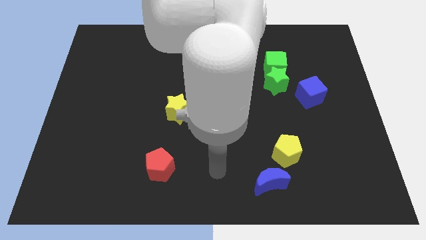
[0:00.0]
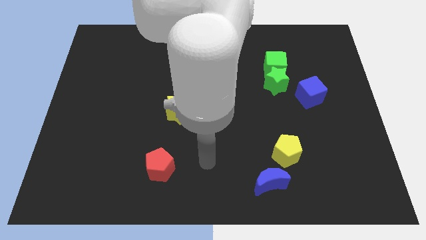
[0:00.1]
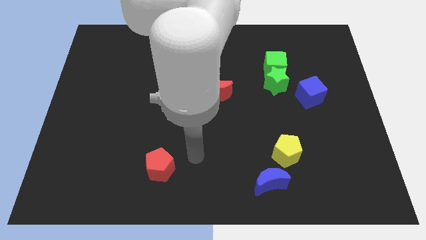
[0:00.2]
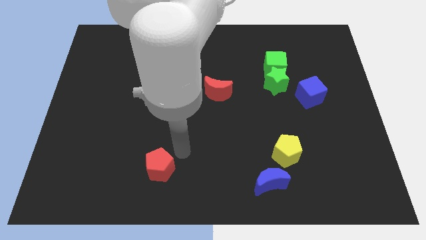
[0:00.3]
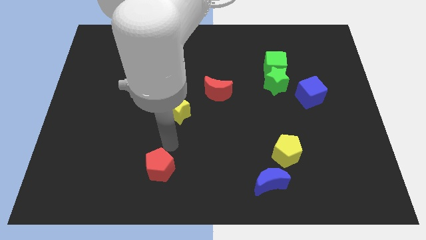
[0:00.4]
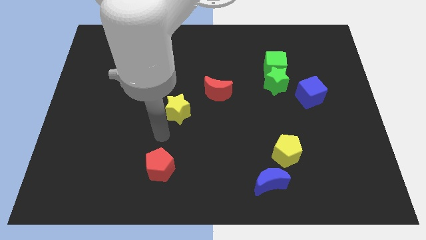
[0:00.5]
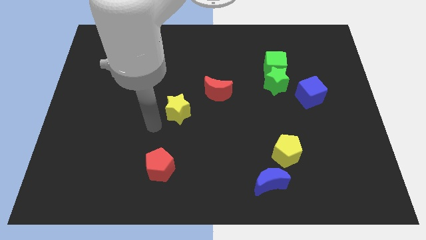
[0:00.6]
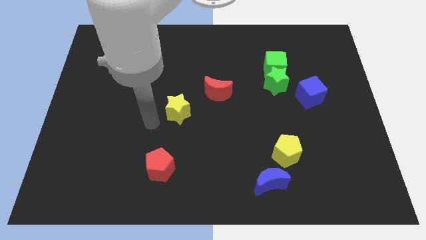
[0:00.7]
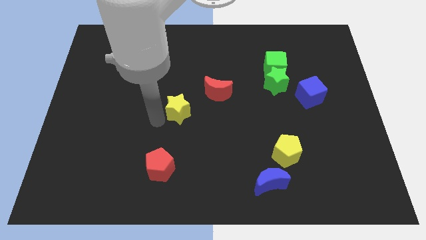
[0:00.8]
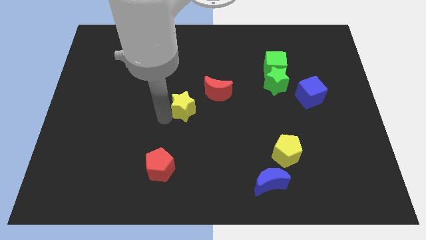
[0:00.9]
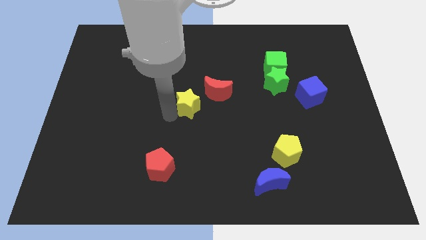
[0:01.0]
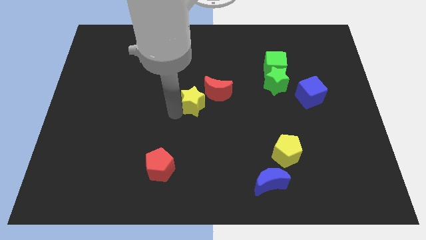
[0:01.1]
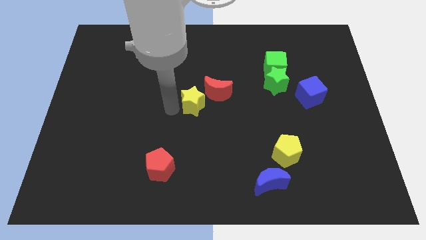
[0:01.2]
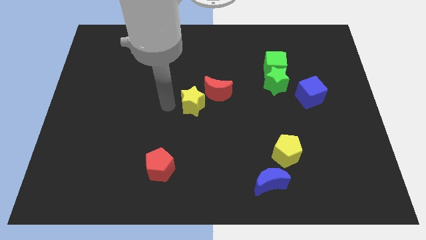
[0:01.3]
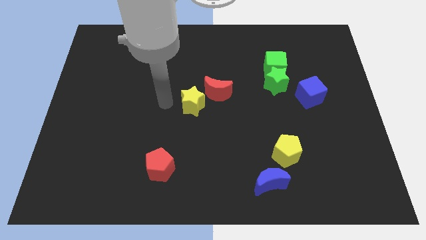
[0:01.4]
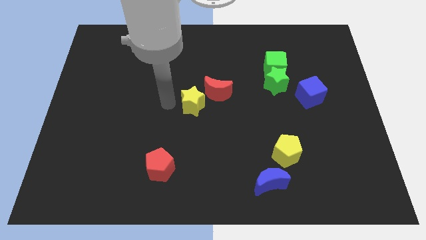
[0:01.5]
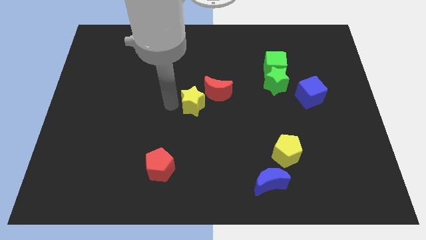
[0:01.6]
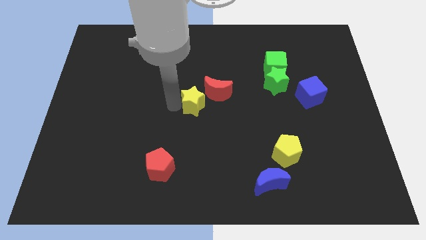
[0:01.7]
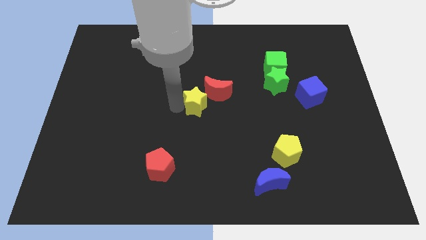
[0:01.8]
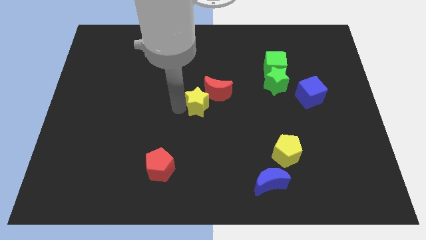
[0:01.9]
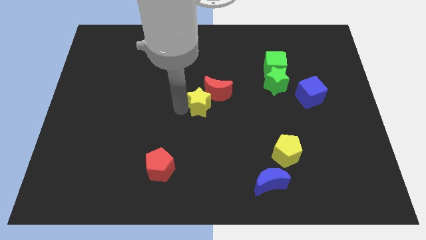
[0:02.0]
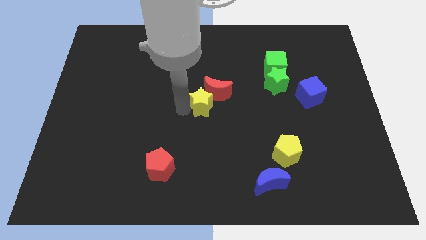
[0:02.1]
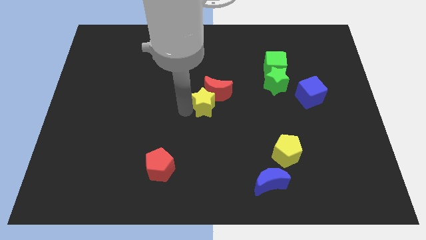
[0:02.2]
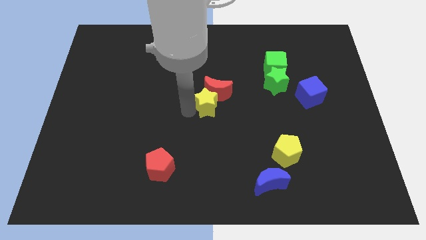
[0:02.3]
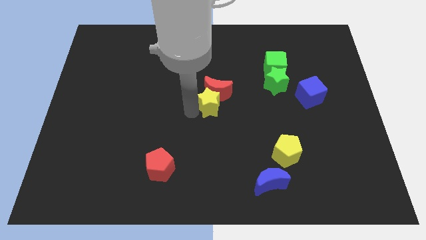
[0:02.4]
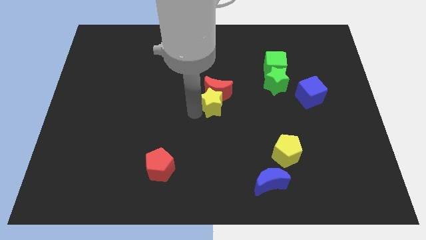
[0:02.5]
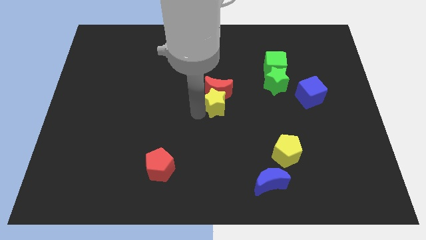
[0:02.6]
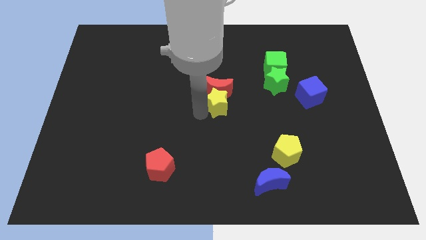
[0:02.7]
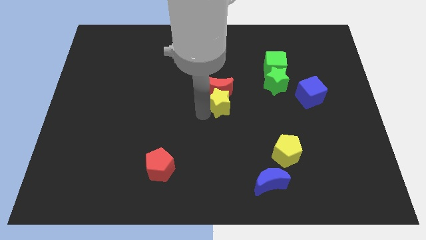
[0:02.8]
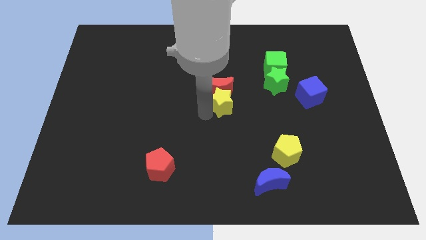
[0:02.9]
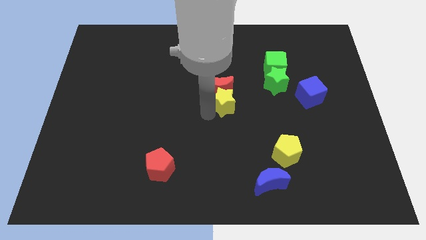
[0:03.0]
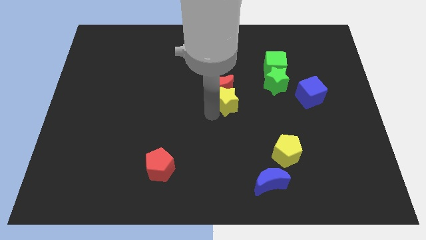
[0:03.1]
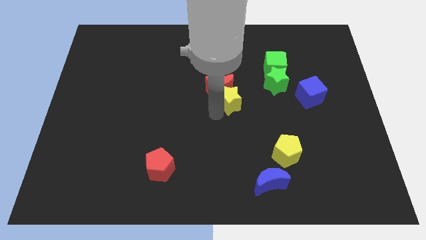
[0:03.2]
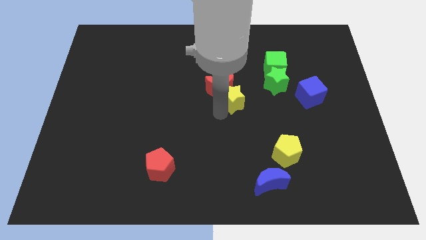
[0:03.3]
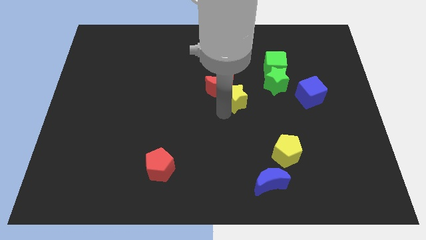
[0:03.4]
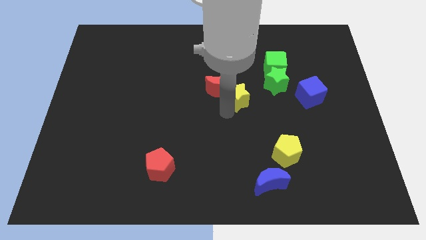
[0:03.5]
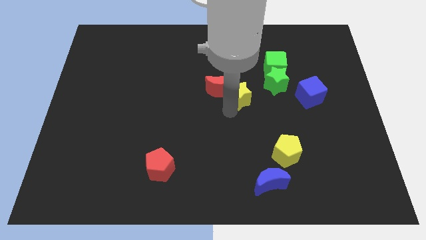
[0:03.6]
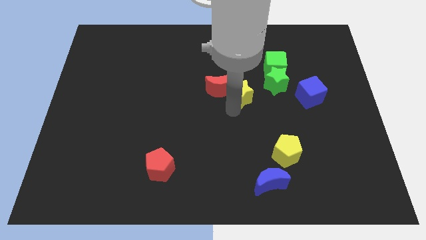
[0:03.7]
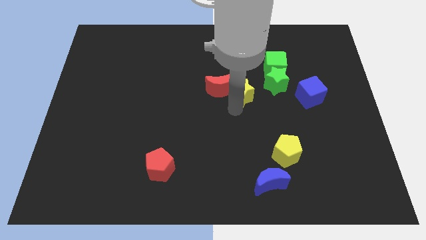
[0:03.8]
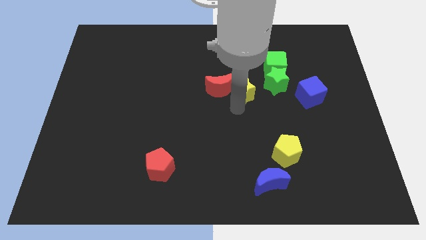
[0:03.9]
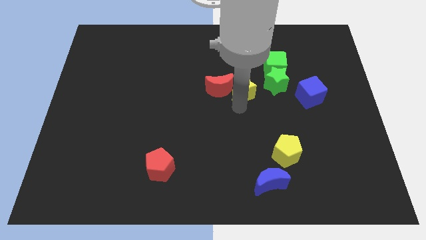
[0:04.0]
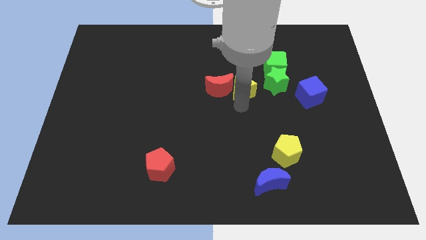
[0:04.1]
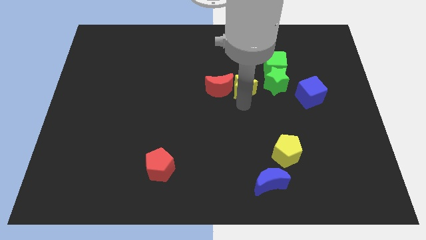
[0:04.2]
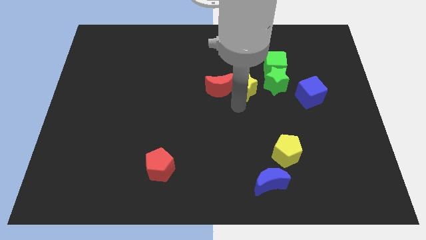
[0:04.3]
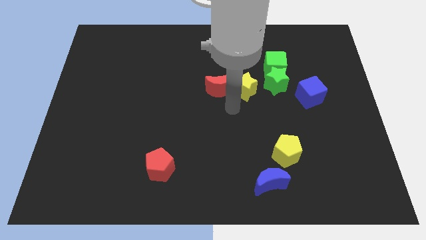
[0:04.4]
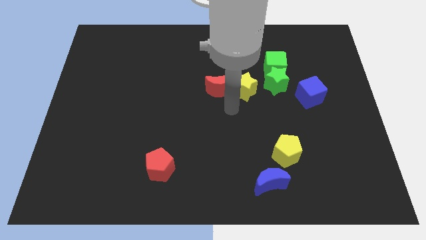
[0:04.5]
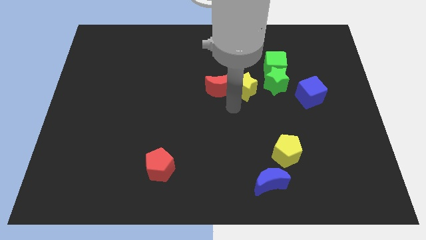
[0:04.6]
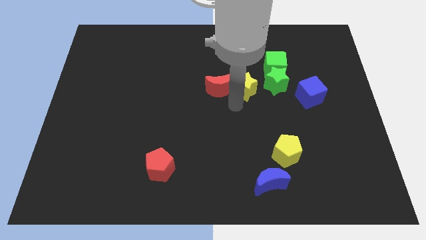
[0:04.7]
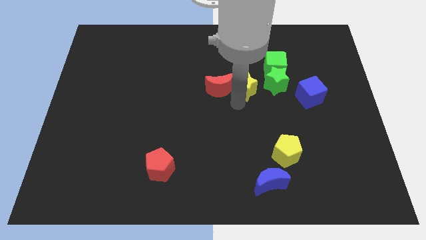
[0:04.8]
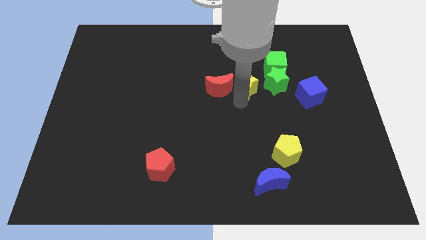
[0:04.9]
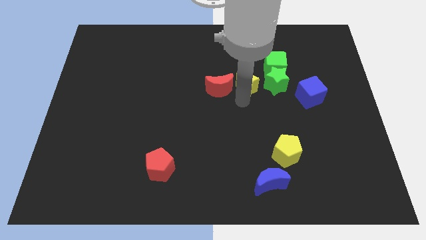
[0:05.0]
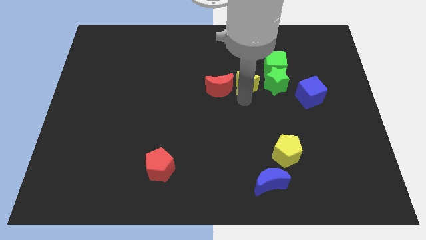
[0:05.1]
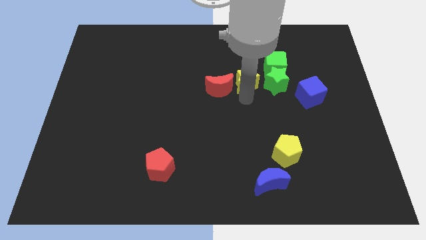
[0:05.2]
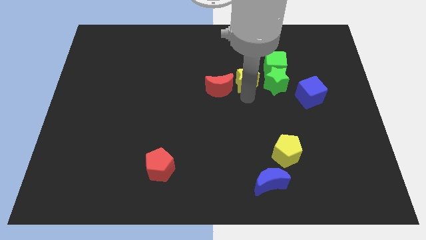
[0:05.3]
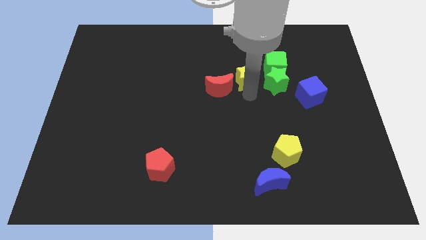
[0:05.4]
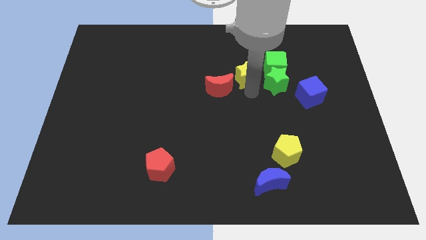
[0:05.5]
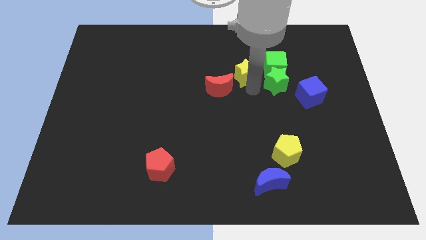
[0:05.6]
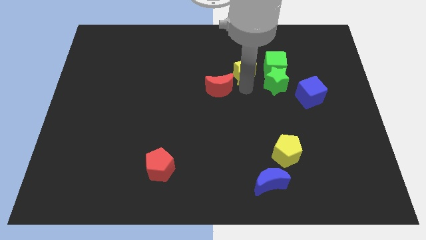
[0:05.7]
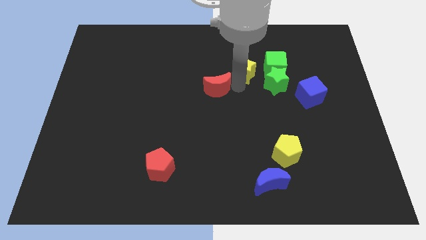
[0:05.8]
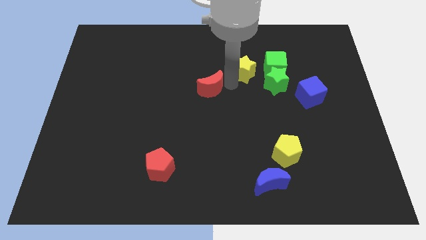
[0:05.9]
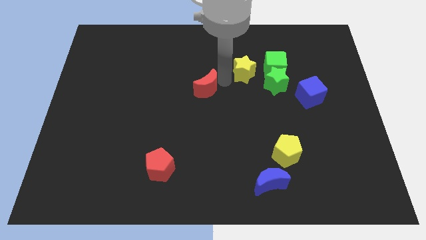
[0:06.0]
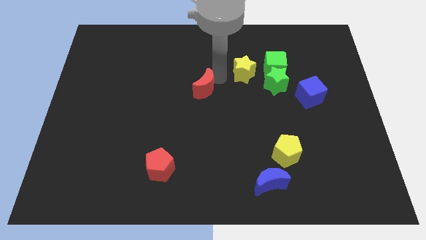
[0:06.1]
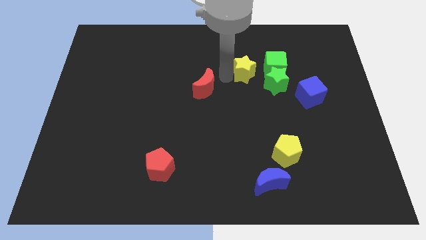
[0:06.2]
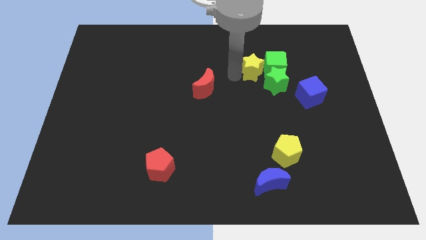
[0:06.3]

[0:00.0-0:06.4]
slide the yellow star close to the green cube
